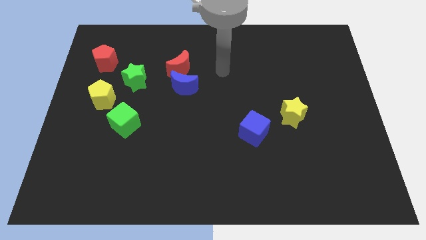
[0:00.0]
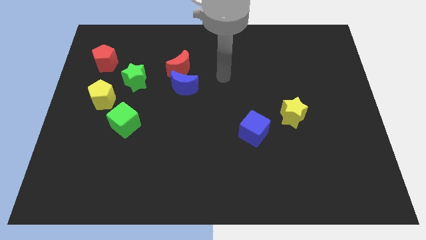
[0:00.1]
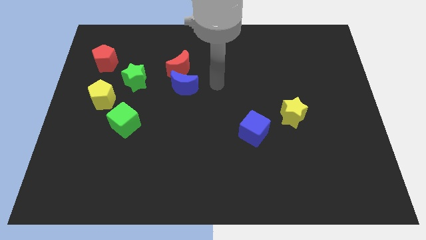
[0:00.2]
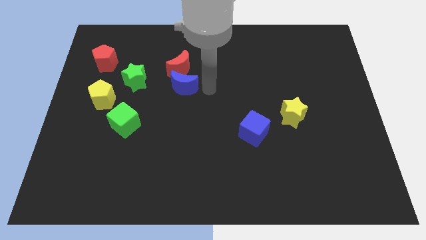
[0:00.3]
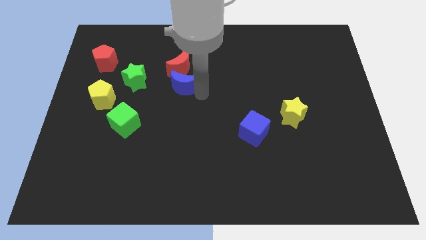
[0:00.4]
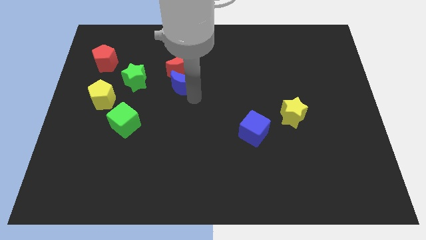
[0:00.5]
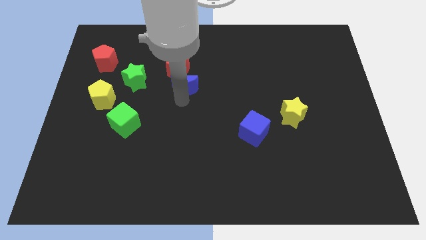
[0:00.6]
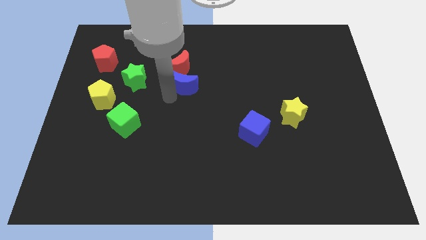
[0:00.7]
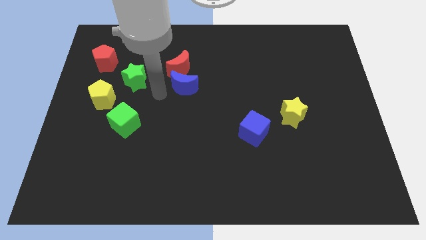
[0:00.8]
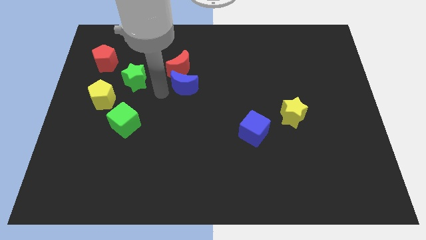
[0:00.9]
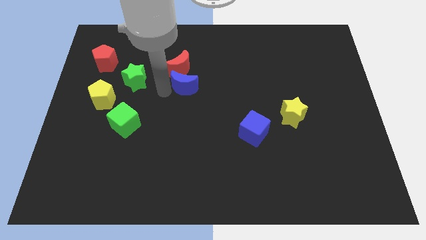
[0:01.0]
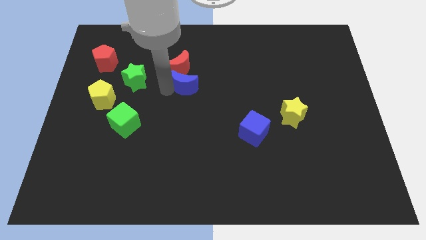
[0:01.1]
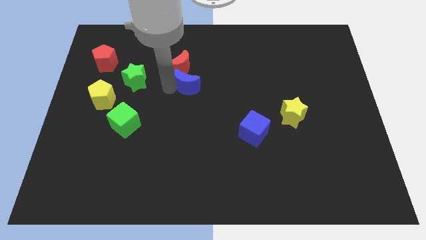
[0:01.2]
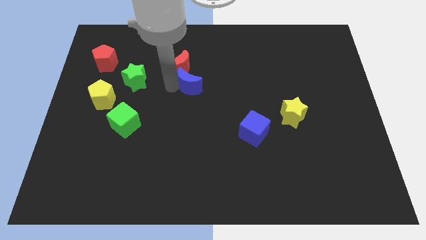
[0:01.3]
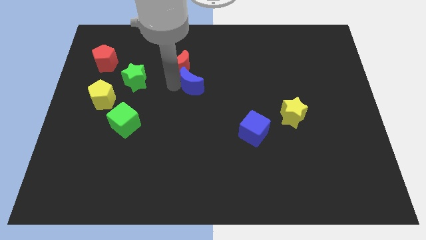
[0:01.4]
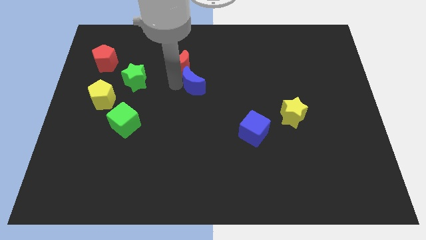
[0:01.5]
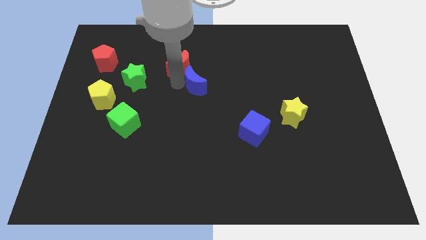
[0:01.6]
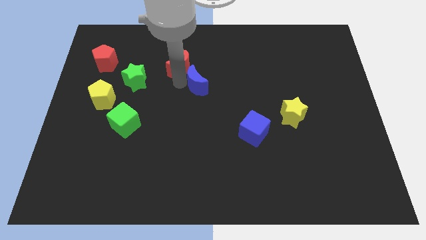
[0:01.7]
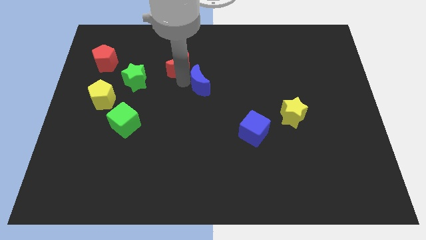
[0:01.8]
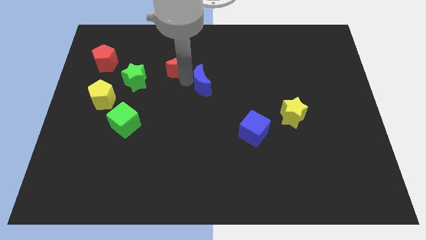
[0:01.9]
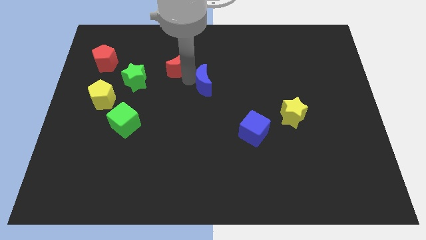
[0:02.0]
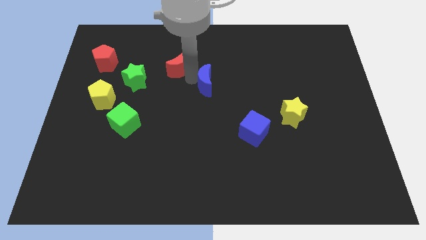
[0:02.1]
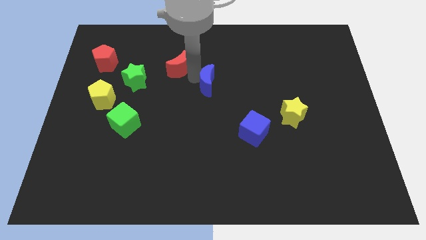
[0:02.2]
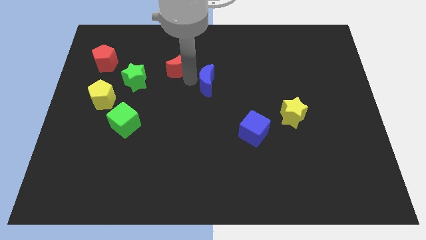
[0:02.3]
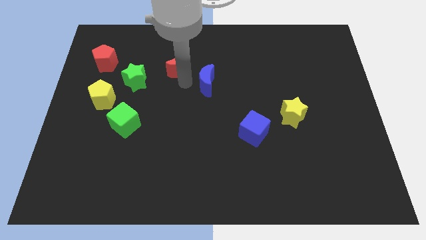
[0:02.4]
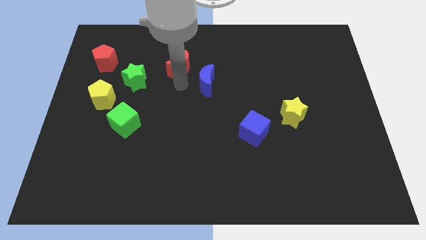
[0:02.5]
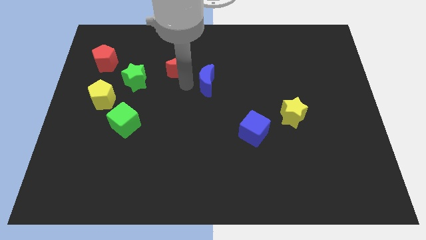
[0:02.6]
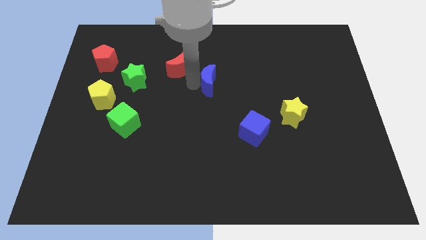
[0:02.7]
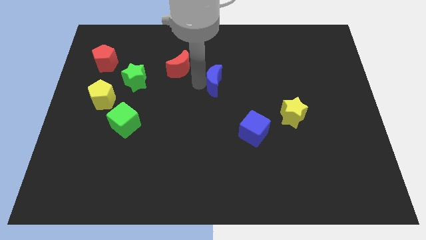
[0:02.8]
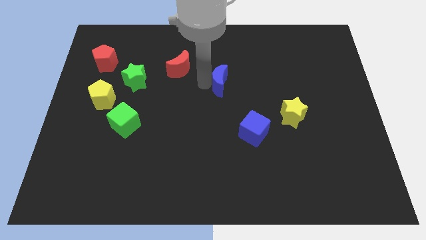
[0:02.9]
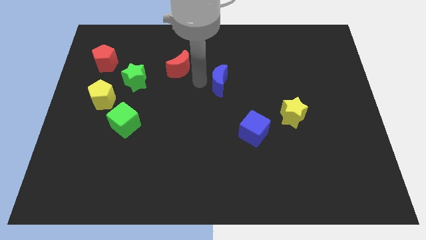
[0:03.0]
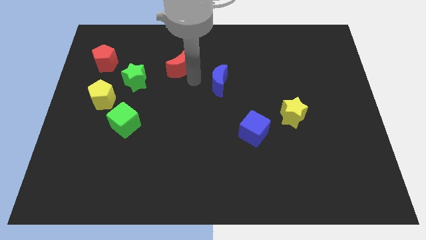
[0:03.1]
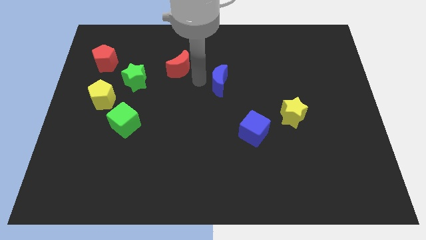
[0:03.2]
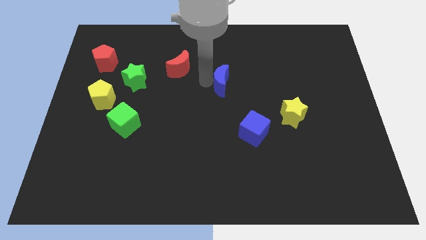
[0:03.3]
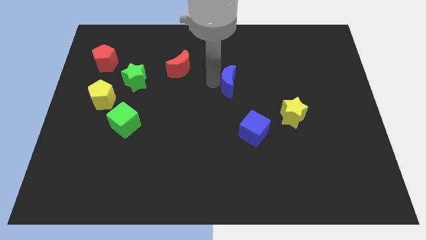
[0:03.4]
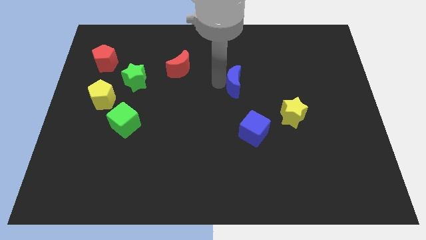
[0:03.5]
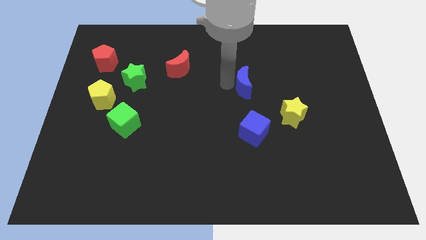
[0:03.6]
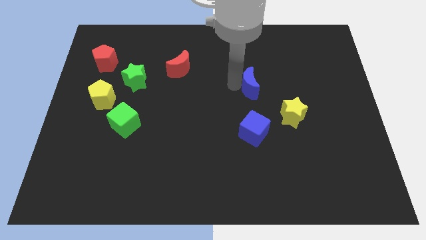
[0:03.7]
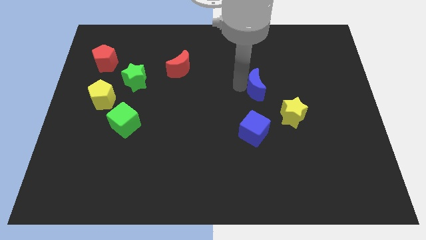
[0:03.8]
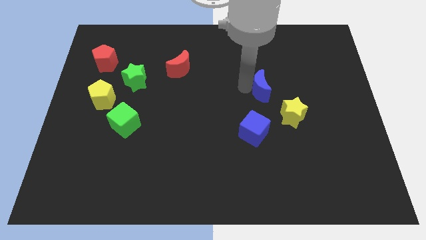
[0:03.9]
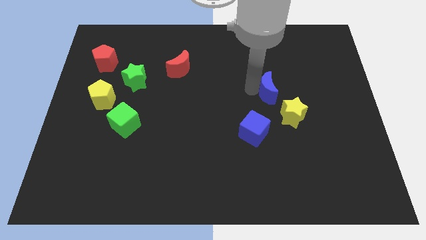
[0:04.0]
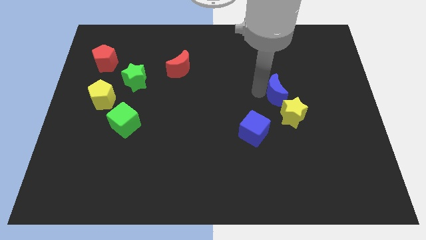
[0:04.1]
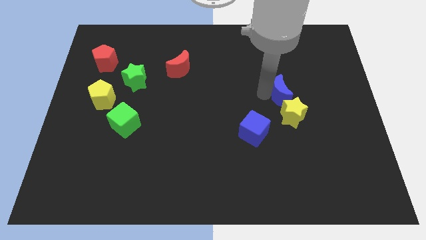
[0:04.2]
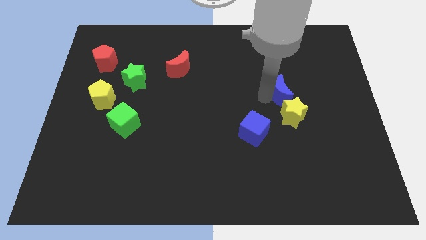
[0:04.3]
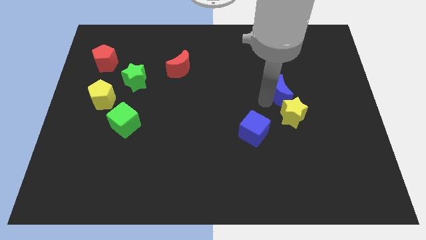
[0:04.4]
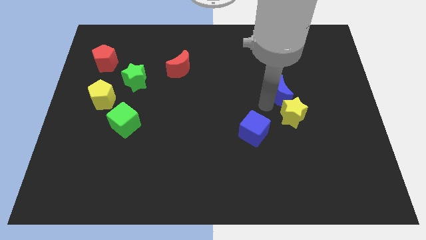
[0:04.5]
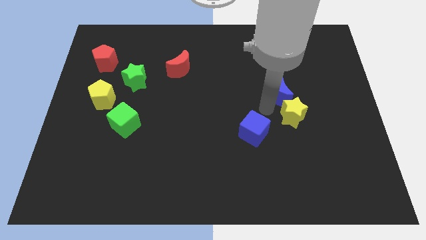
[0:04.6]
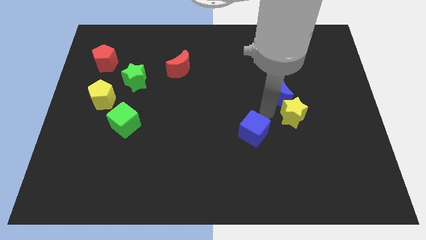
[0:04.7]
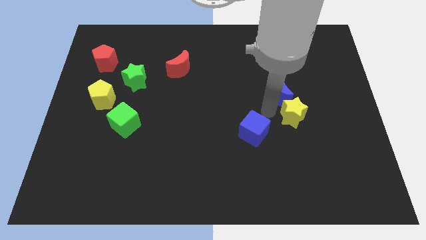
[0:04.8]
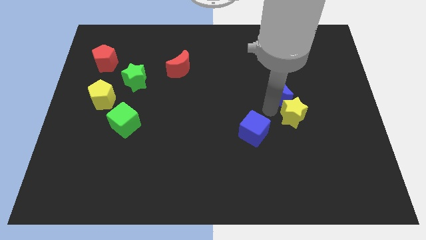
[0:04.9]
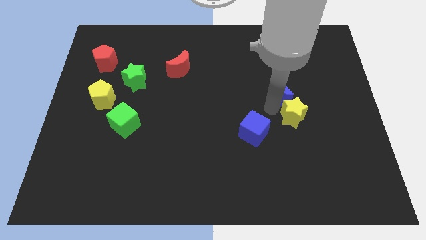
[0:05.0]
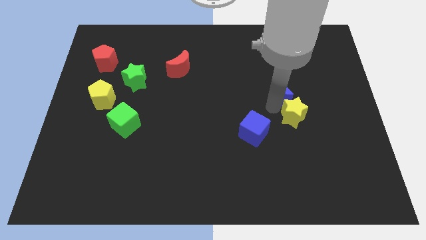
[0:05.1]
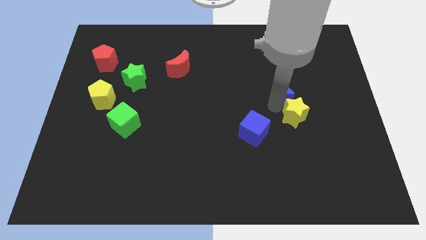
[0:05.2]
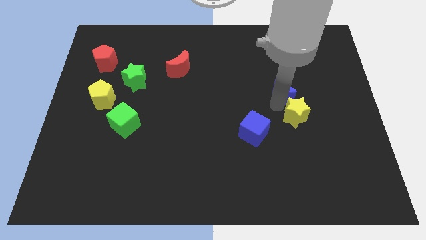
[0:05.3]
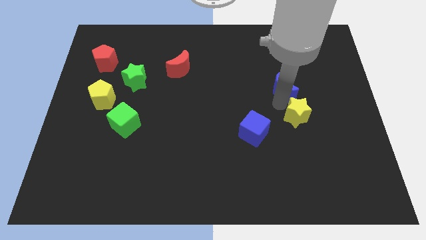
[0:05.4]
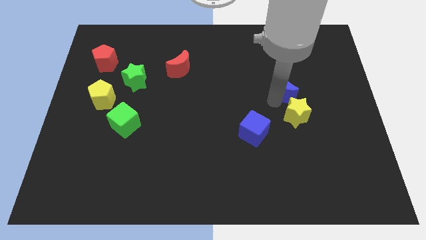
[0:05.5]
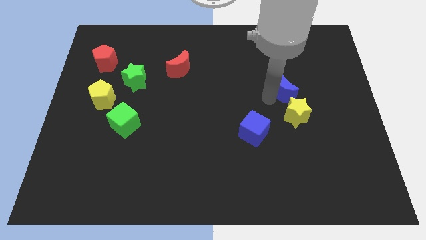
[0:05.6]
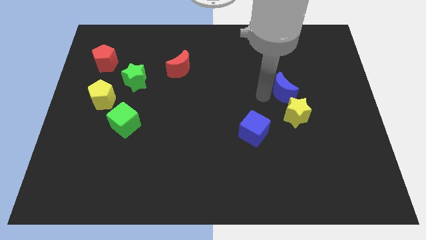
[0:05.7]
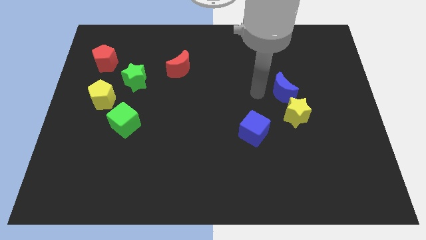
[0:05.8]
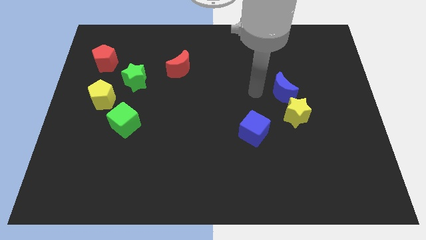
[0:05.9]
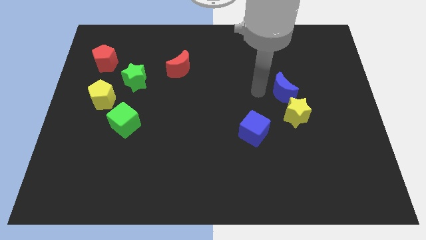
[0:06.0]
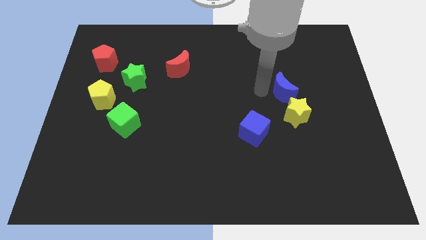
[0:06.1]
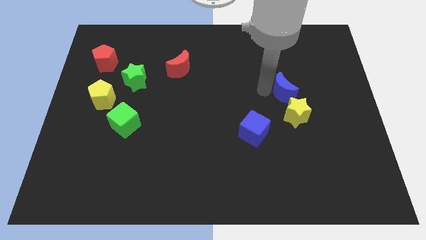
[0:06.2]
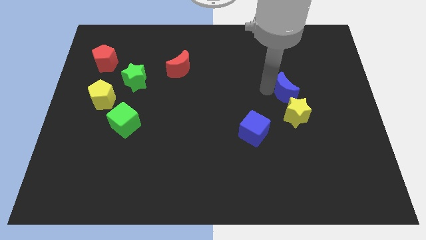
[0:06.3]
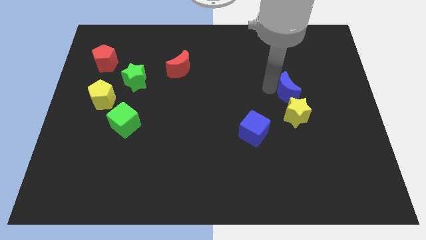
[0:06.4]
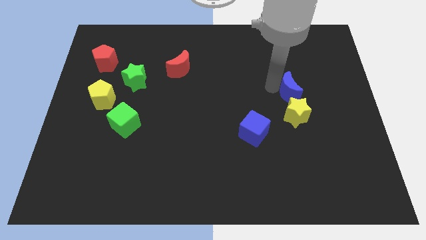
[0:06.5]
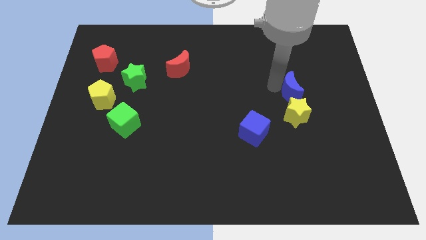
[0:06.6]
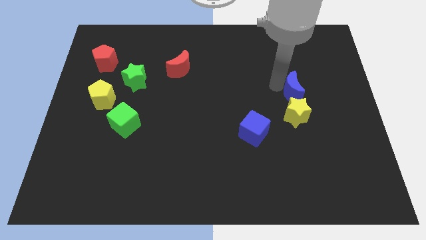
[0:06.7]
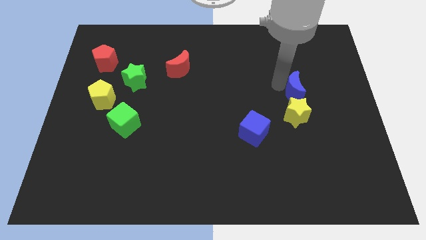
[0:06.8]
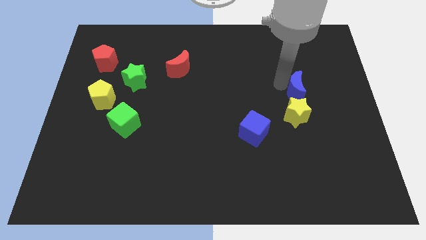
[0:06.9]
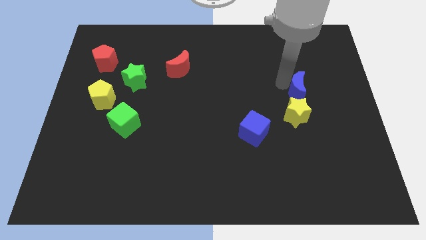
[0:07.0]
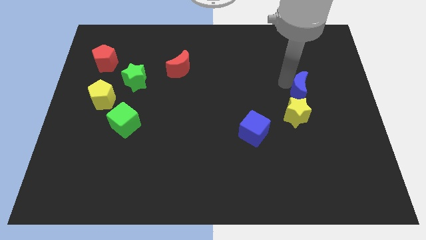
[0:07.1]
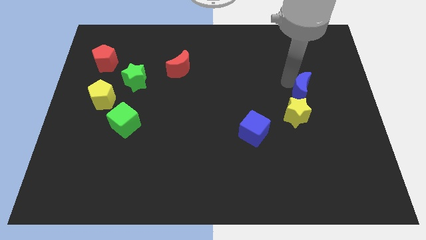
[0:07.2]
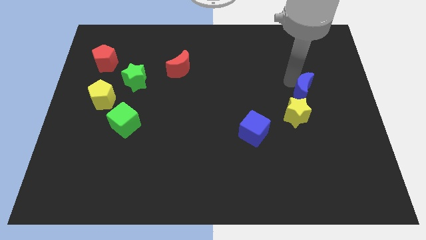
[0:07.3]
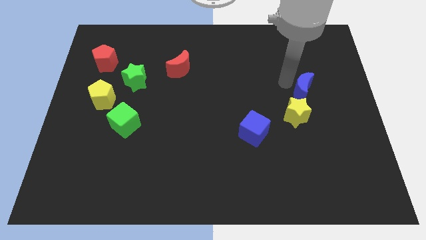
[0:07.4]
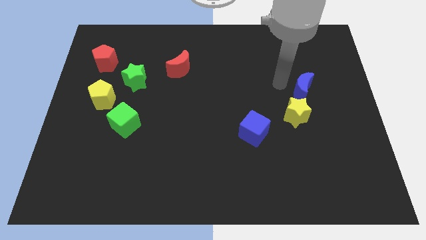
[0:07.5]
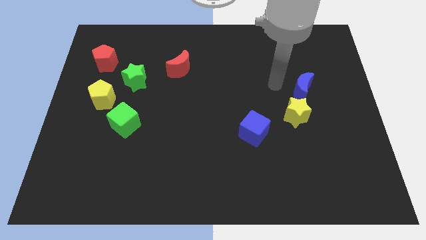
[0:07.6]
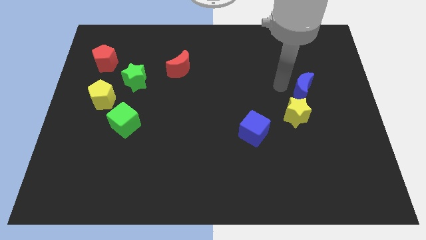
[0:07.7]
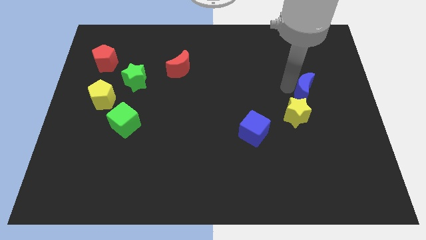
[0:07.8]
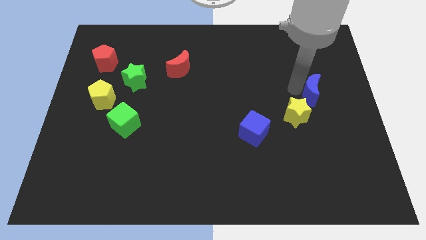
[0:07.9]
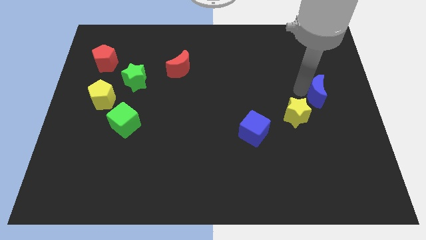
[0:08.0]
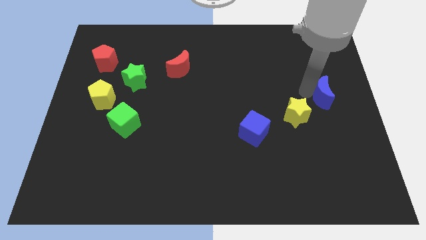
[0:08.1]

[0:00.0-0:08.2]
push the blue moon to the center right

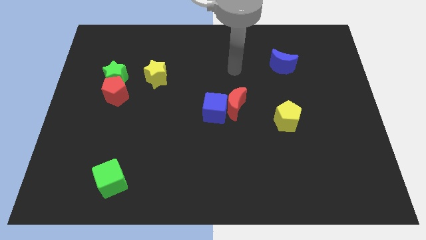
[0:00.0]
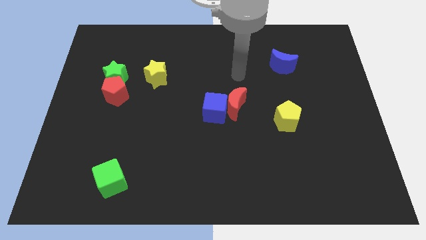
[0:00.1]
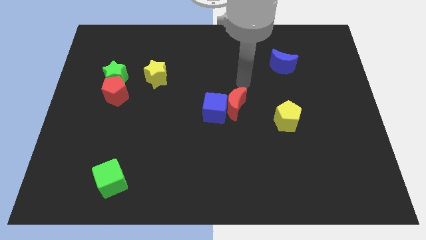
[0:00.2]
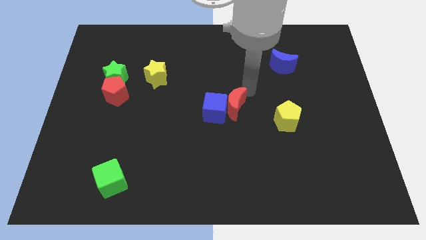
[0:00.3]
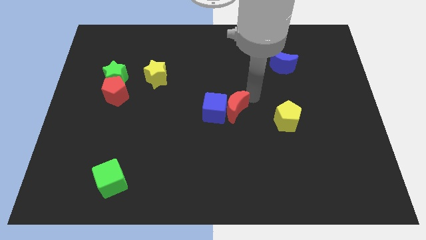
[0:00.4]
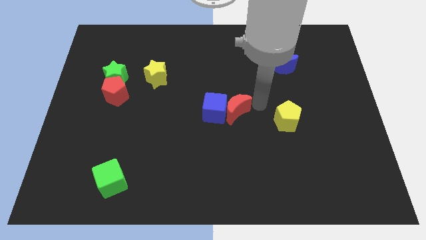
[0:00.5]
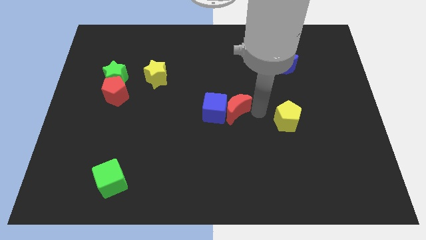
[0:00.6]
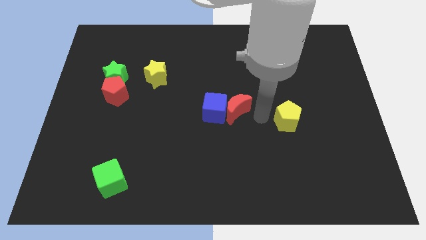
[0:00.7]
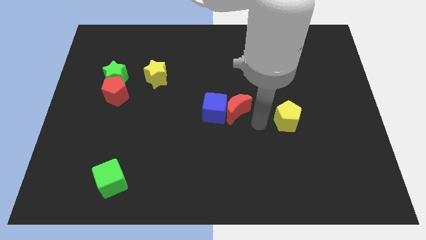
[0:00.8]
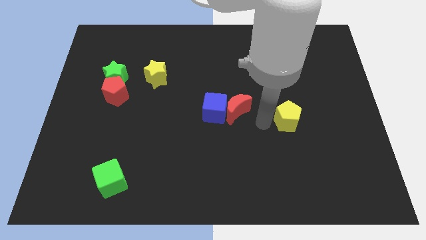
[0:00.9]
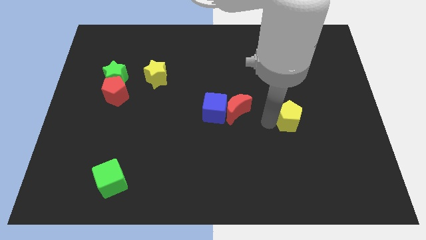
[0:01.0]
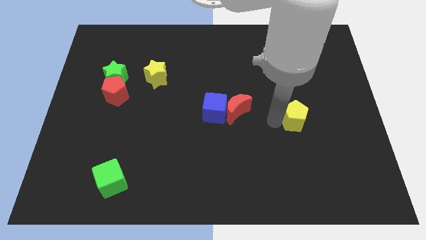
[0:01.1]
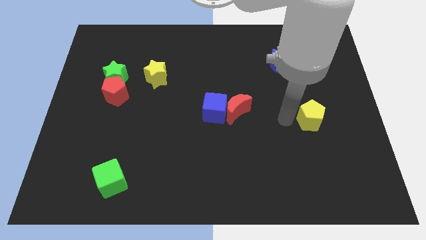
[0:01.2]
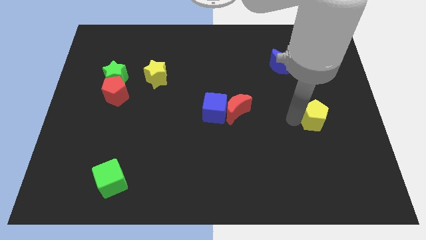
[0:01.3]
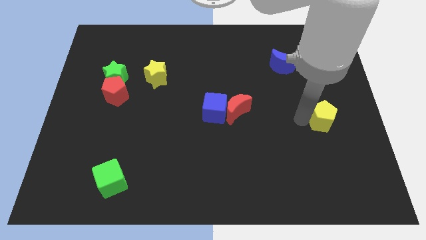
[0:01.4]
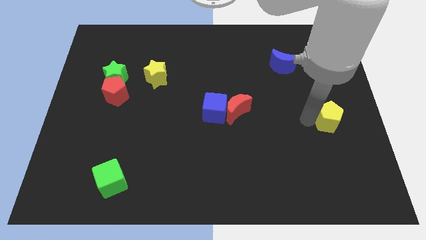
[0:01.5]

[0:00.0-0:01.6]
put the yellow pentagon to the right side
